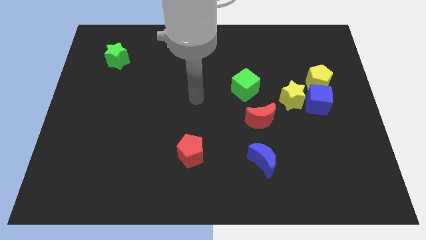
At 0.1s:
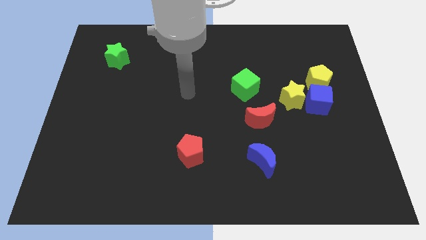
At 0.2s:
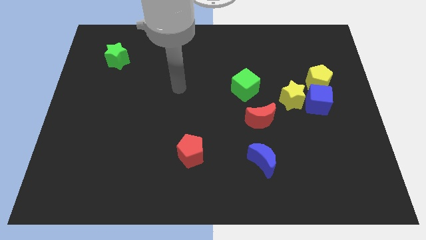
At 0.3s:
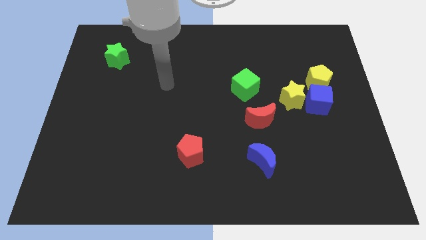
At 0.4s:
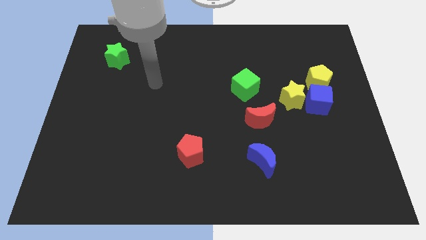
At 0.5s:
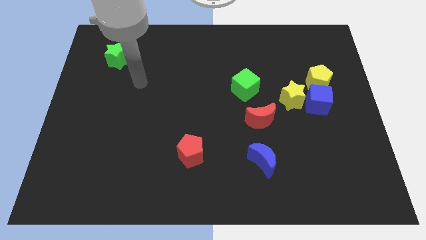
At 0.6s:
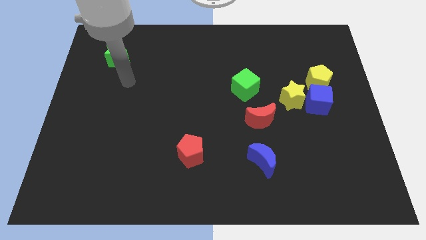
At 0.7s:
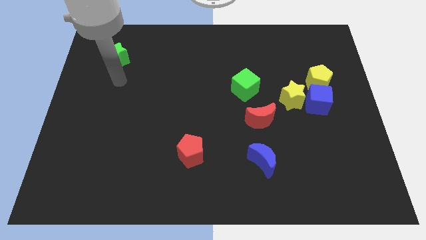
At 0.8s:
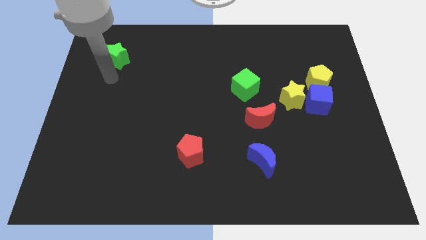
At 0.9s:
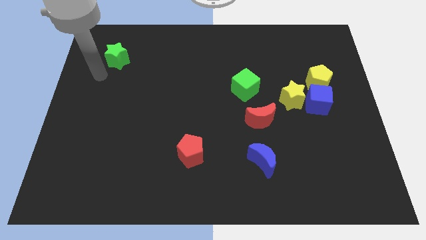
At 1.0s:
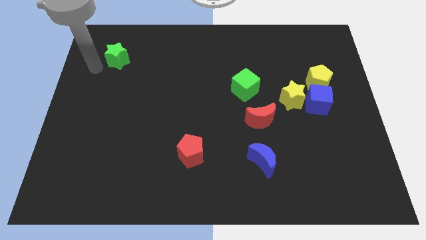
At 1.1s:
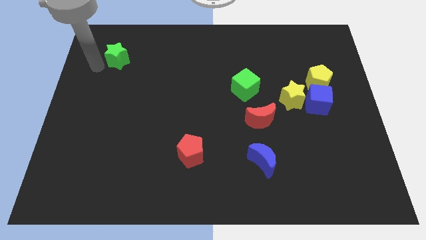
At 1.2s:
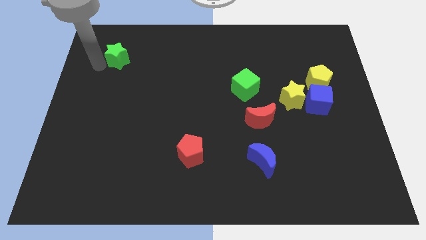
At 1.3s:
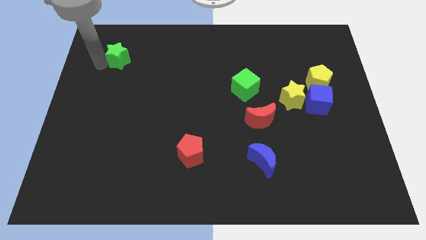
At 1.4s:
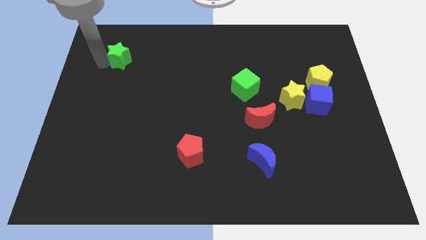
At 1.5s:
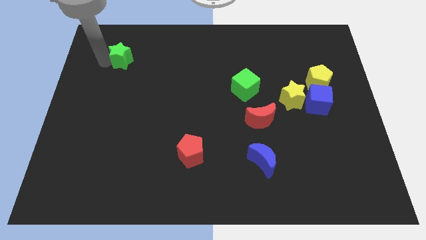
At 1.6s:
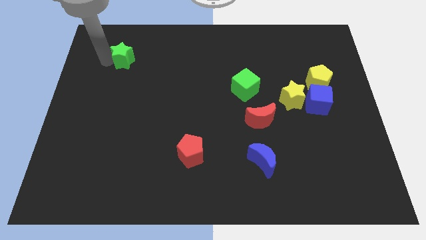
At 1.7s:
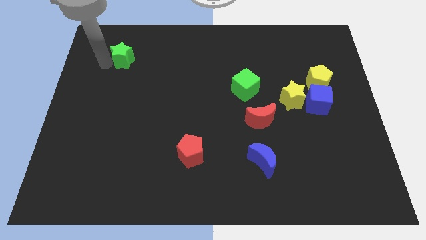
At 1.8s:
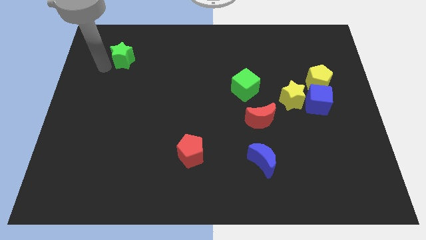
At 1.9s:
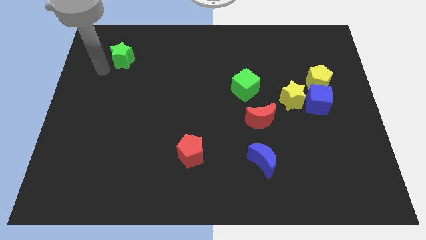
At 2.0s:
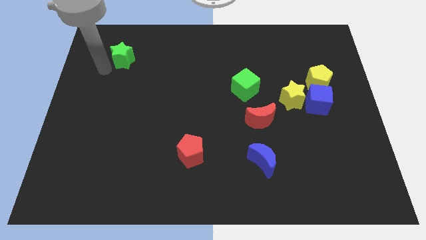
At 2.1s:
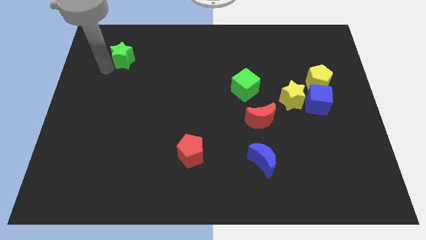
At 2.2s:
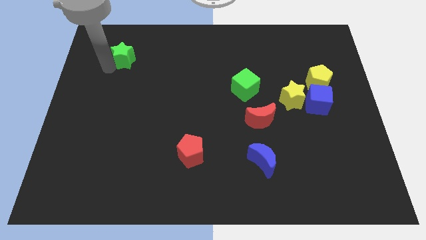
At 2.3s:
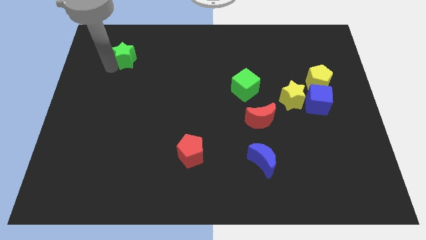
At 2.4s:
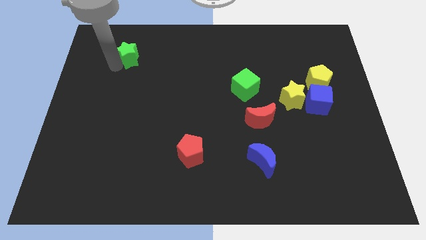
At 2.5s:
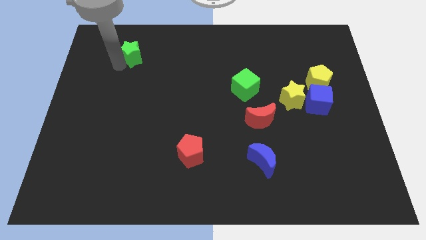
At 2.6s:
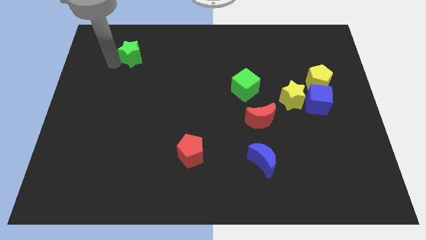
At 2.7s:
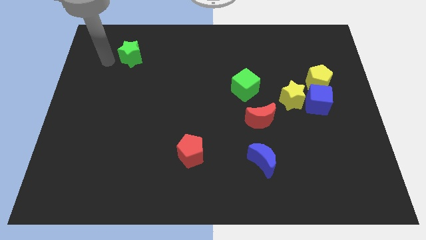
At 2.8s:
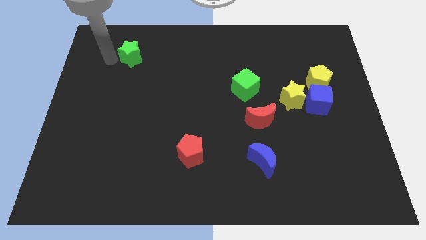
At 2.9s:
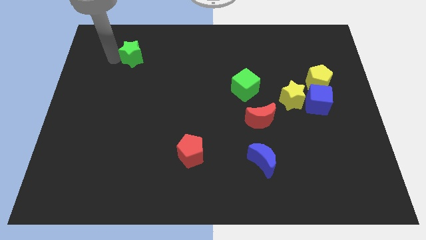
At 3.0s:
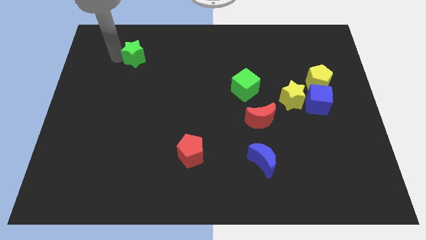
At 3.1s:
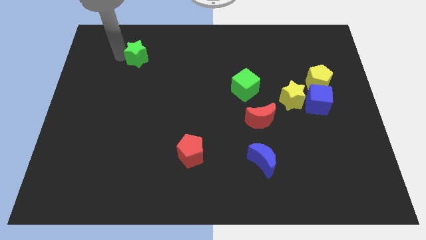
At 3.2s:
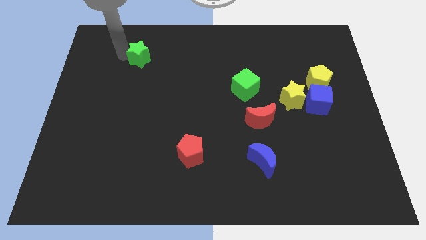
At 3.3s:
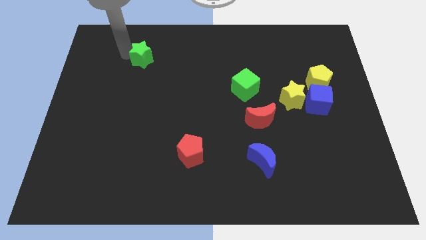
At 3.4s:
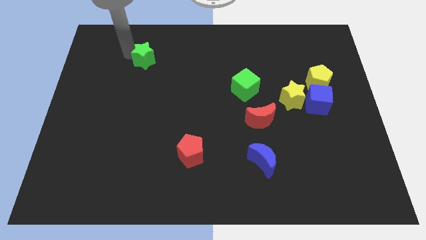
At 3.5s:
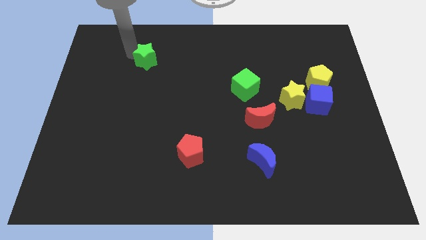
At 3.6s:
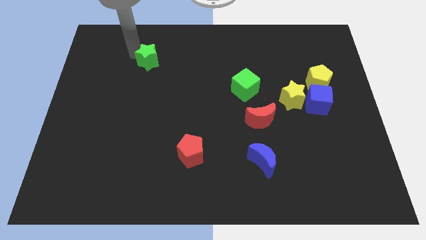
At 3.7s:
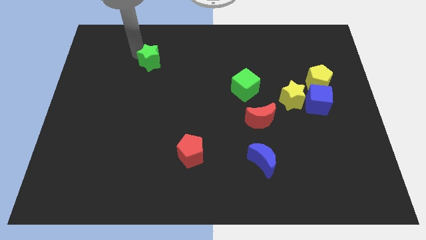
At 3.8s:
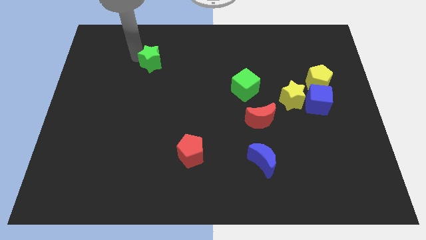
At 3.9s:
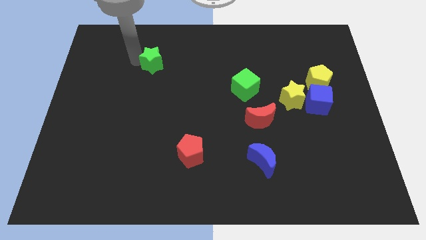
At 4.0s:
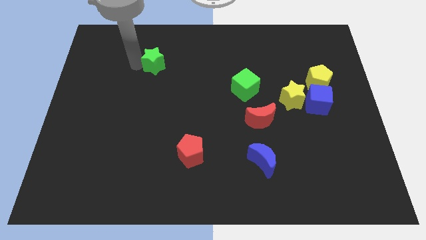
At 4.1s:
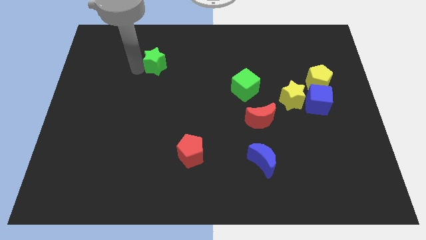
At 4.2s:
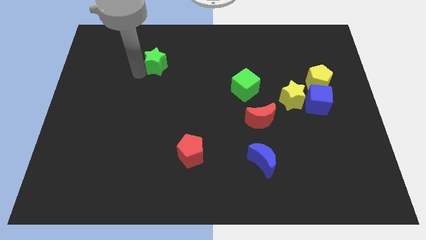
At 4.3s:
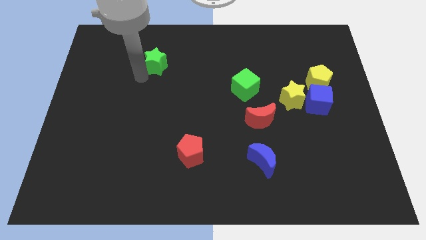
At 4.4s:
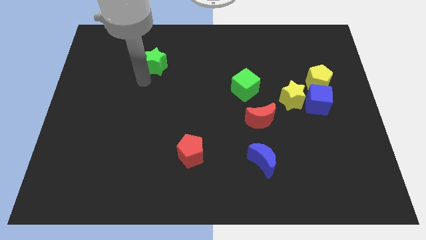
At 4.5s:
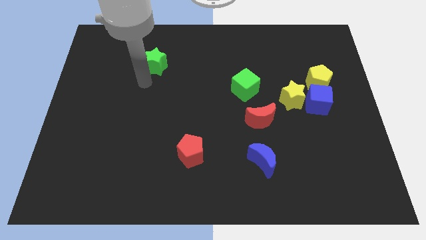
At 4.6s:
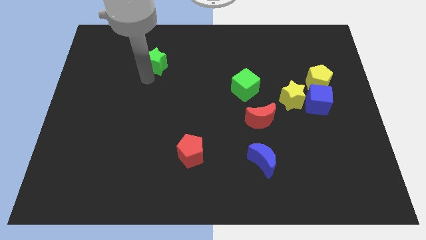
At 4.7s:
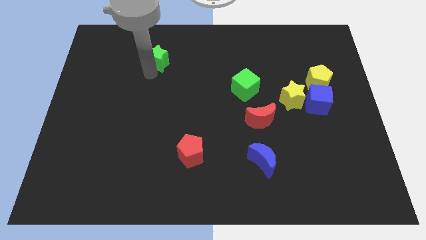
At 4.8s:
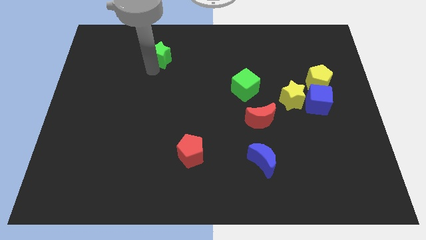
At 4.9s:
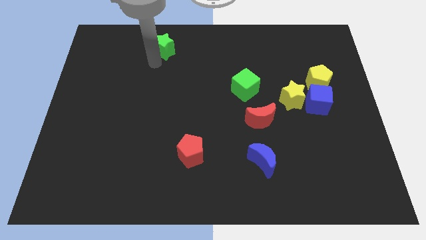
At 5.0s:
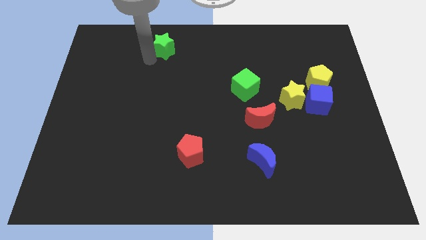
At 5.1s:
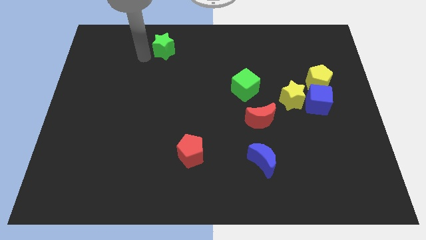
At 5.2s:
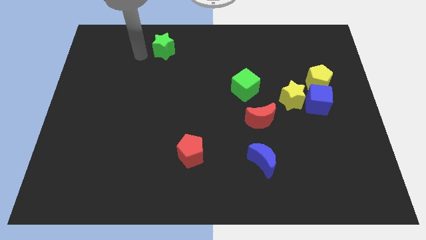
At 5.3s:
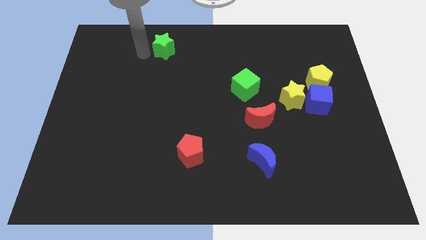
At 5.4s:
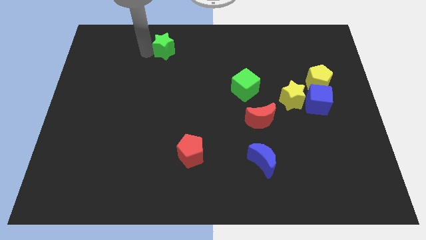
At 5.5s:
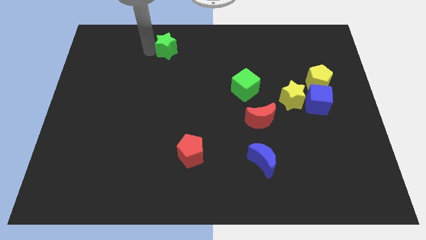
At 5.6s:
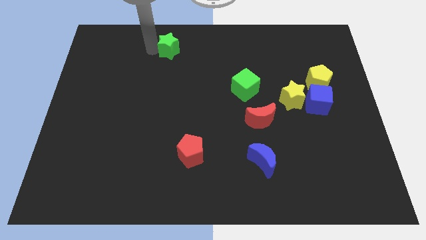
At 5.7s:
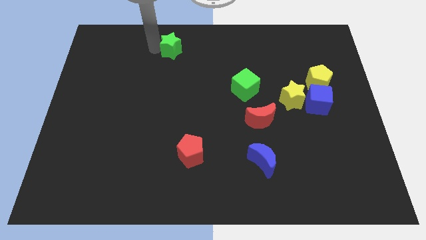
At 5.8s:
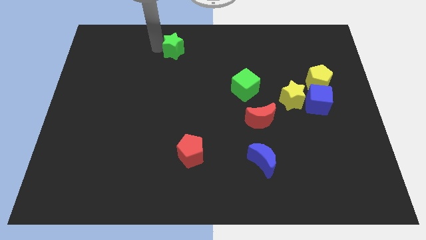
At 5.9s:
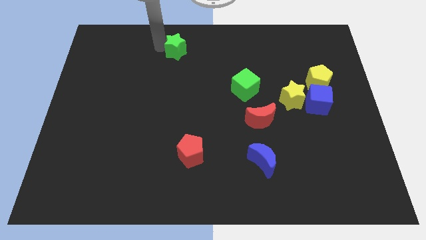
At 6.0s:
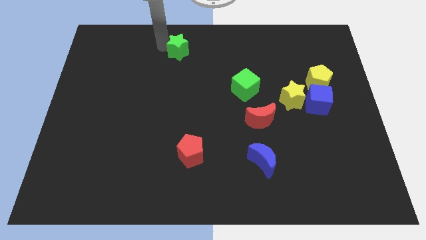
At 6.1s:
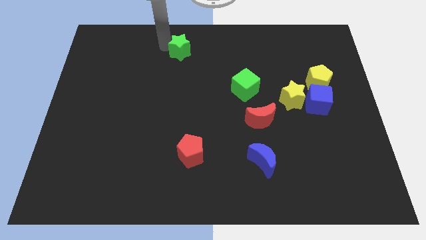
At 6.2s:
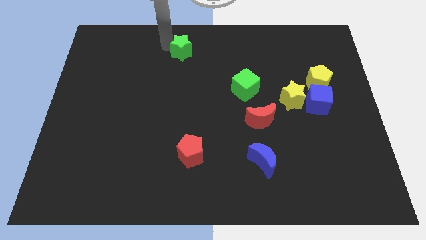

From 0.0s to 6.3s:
move the green star to the towards your base

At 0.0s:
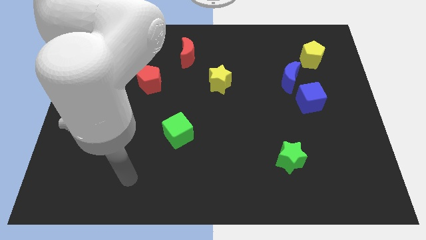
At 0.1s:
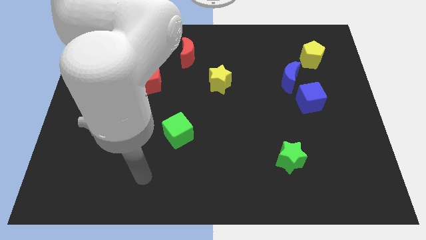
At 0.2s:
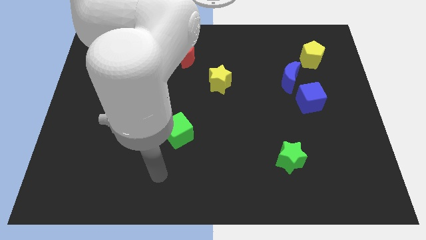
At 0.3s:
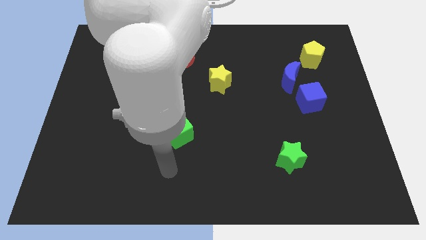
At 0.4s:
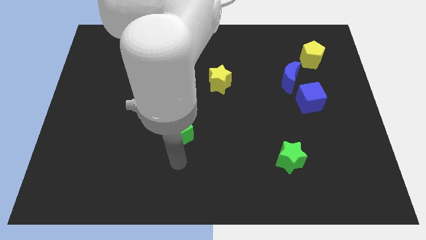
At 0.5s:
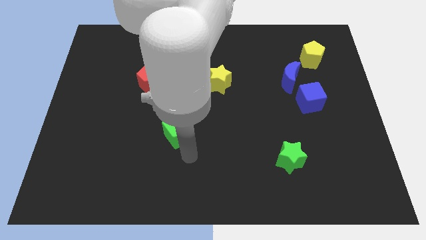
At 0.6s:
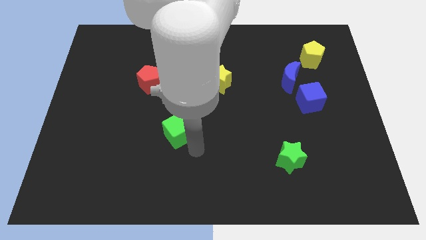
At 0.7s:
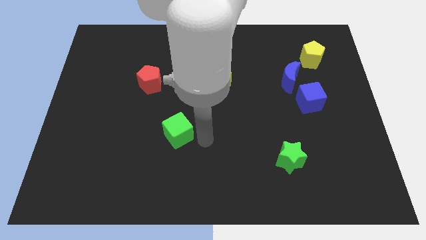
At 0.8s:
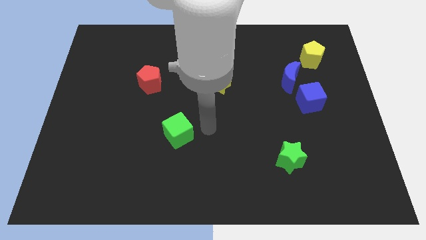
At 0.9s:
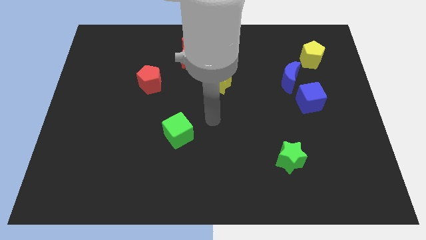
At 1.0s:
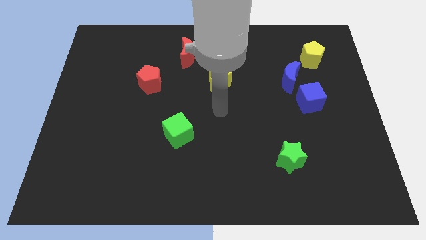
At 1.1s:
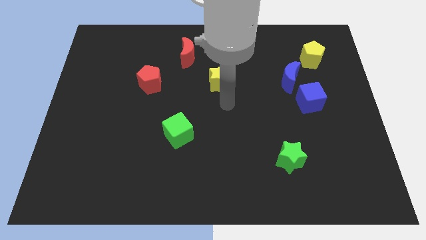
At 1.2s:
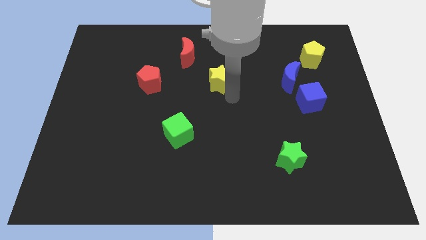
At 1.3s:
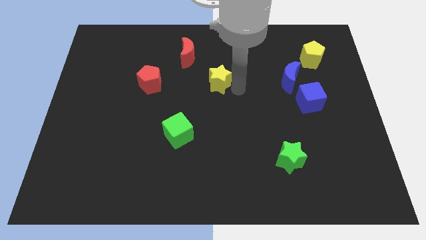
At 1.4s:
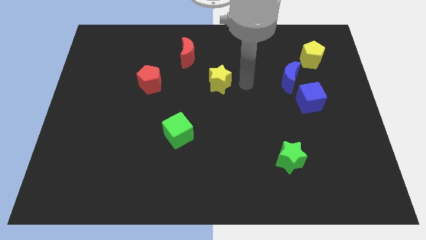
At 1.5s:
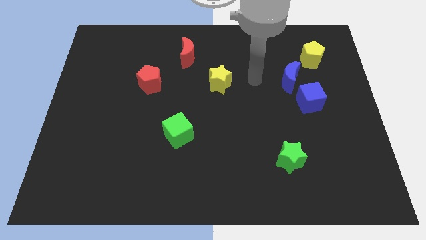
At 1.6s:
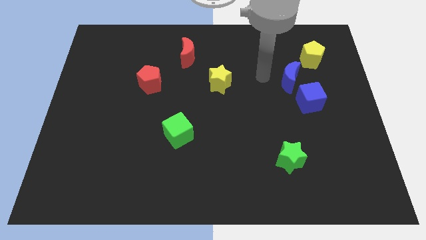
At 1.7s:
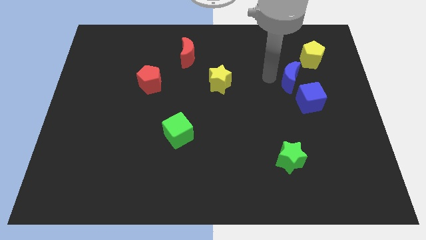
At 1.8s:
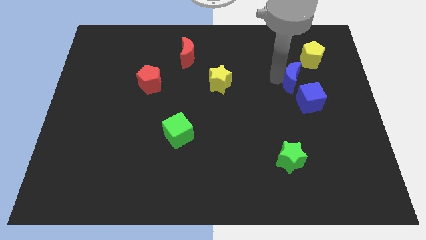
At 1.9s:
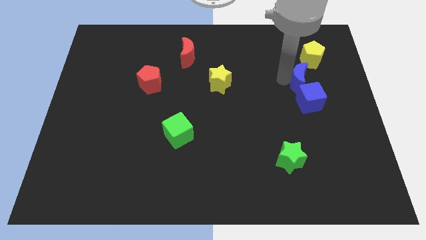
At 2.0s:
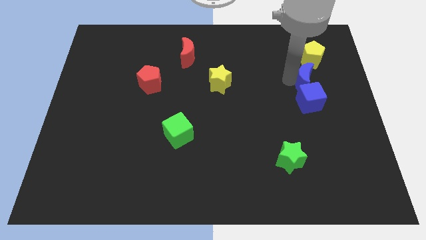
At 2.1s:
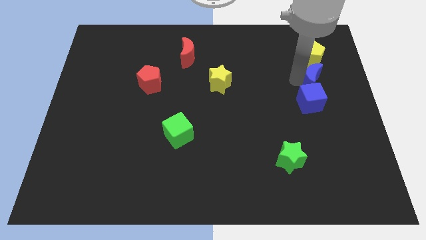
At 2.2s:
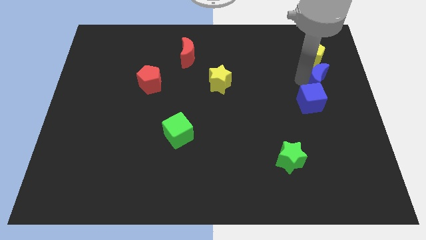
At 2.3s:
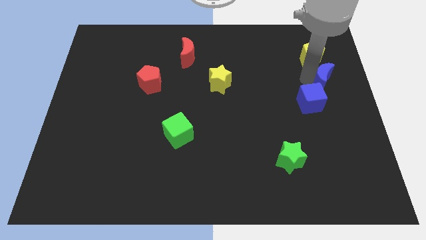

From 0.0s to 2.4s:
push the blue moon to the right side of the board
